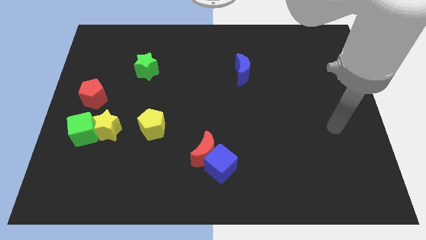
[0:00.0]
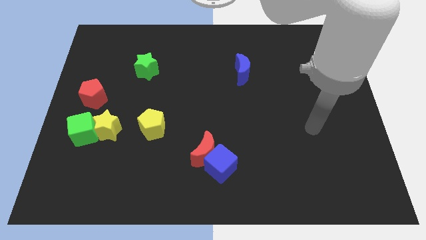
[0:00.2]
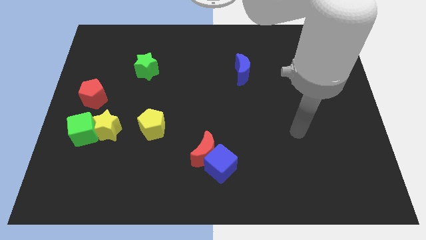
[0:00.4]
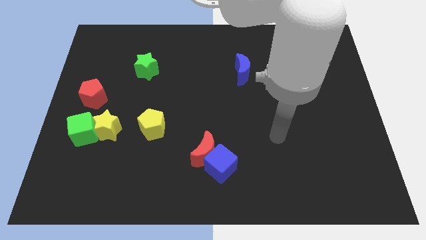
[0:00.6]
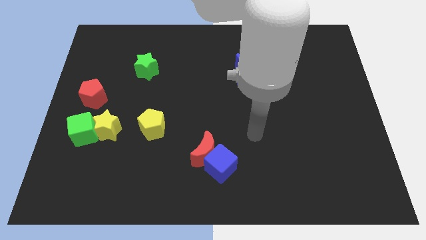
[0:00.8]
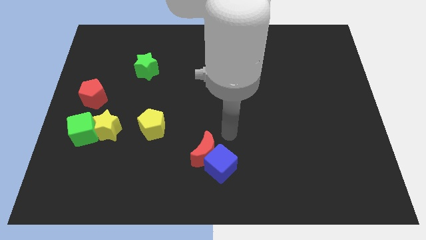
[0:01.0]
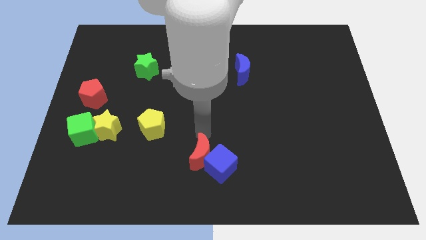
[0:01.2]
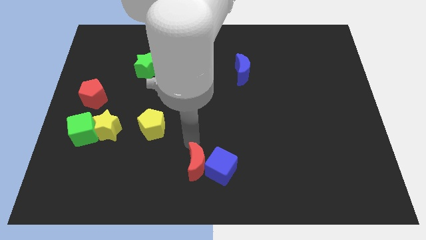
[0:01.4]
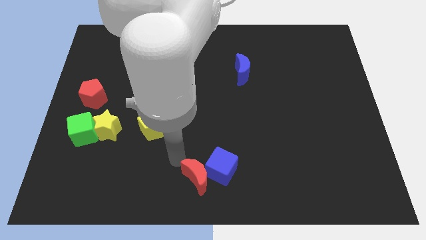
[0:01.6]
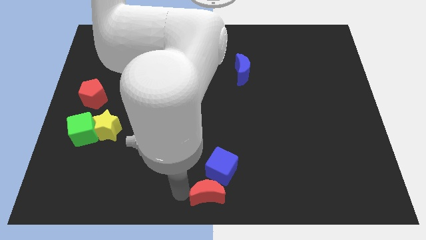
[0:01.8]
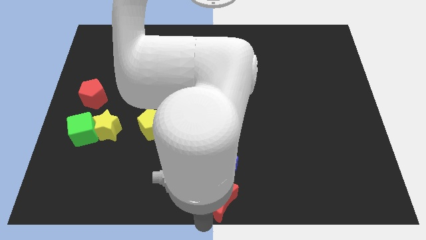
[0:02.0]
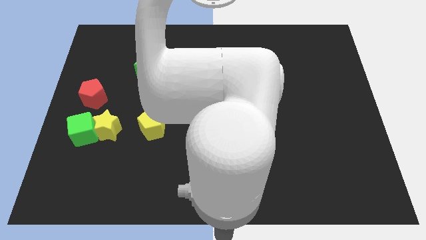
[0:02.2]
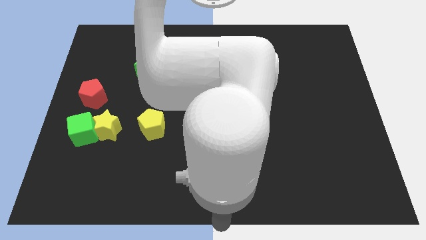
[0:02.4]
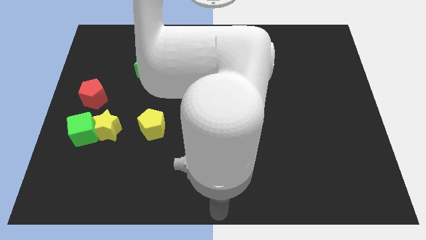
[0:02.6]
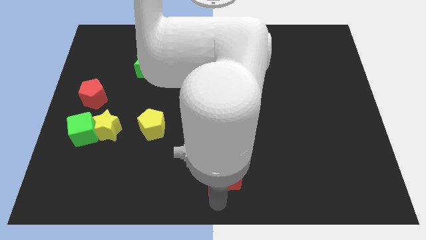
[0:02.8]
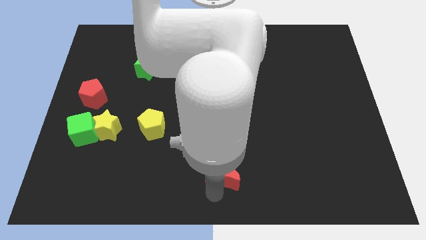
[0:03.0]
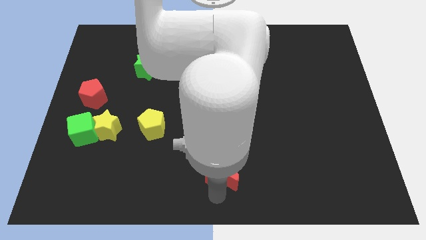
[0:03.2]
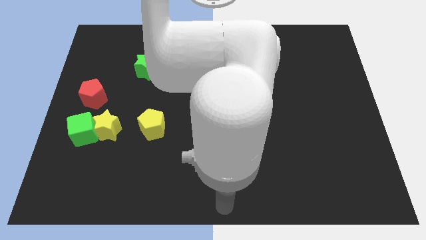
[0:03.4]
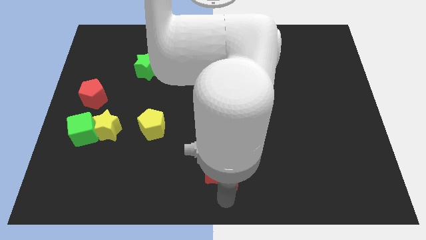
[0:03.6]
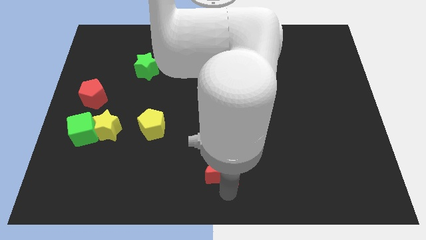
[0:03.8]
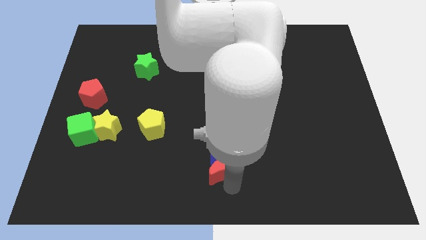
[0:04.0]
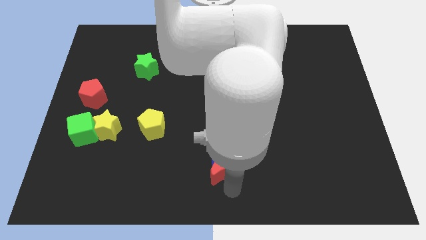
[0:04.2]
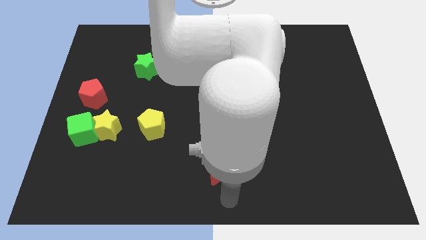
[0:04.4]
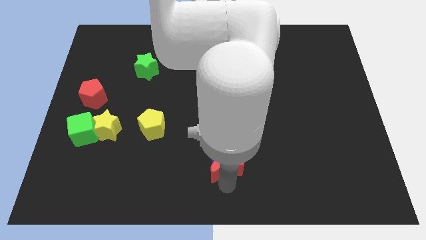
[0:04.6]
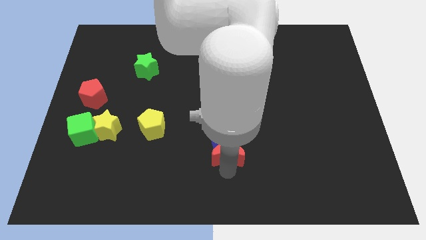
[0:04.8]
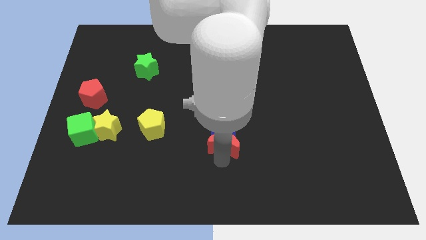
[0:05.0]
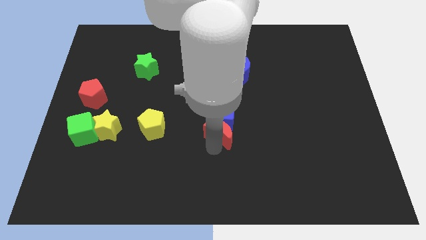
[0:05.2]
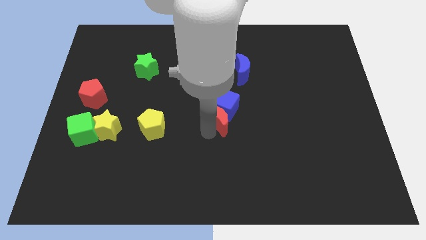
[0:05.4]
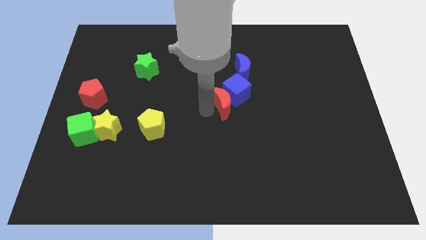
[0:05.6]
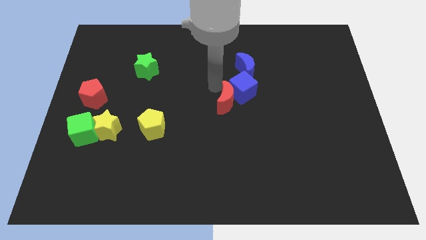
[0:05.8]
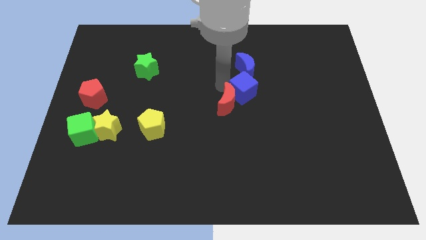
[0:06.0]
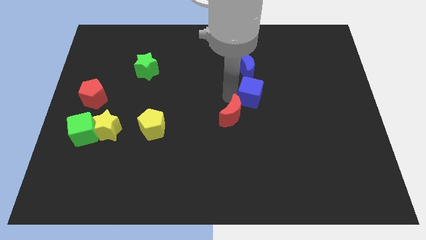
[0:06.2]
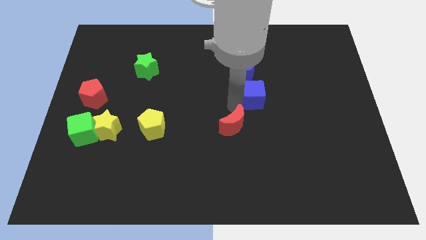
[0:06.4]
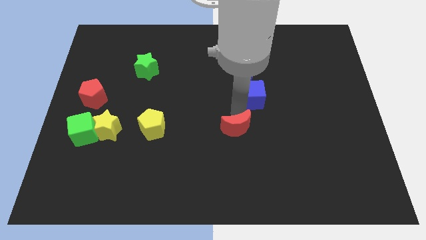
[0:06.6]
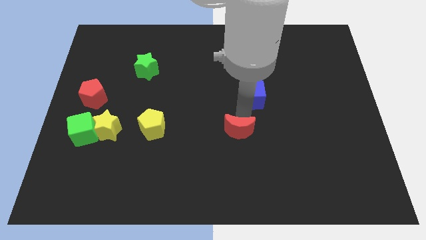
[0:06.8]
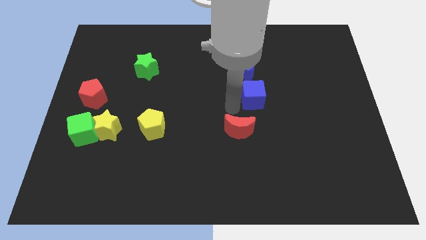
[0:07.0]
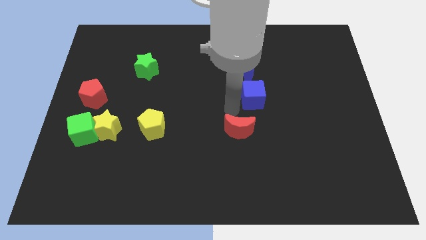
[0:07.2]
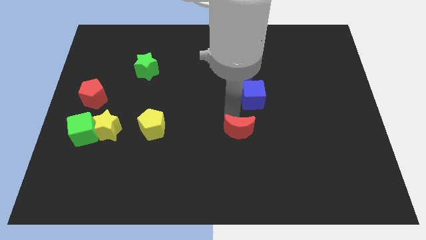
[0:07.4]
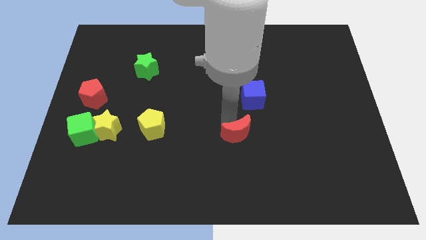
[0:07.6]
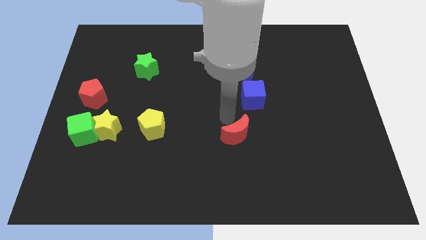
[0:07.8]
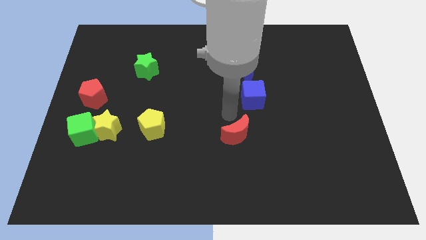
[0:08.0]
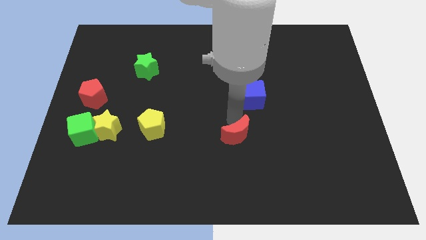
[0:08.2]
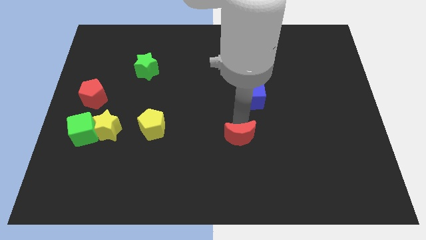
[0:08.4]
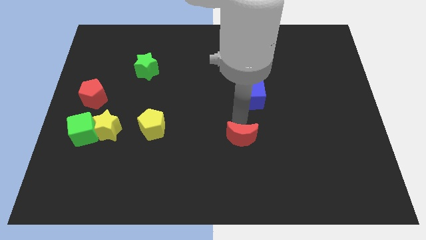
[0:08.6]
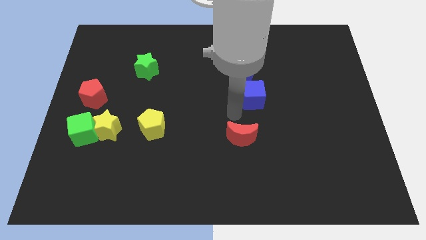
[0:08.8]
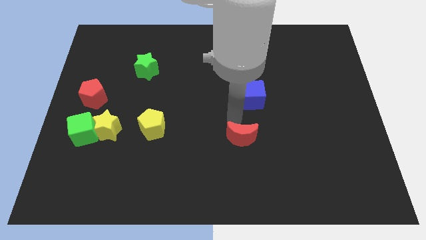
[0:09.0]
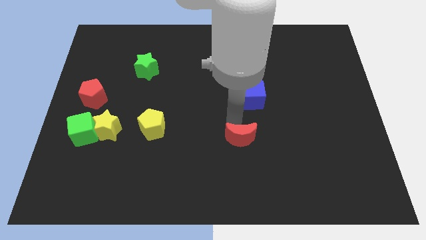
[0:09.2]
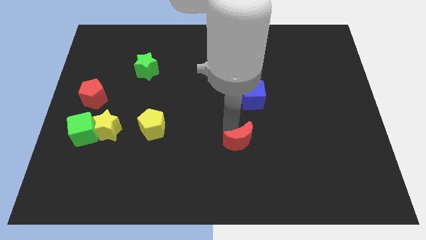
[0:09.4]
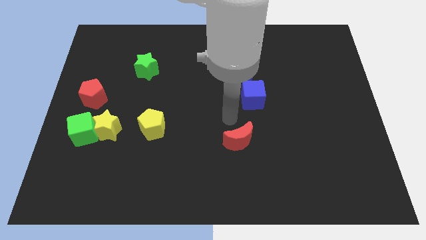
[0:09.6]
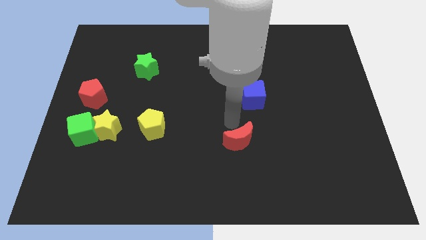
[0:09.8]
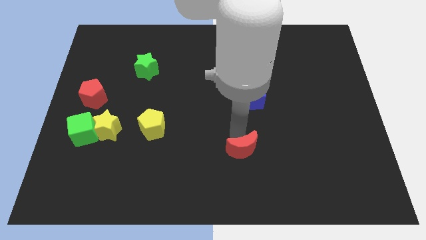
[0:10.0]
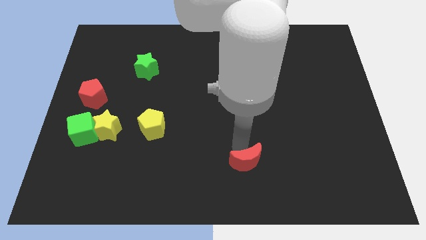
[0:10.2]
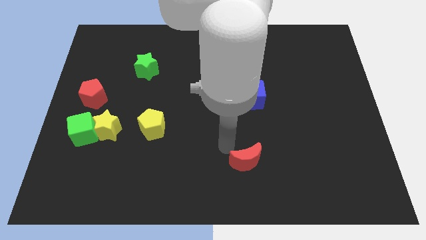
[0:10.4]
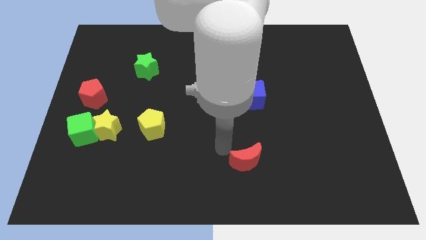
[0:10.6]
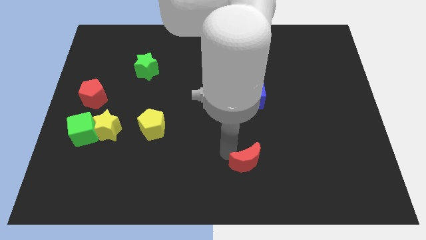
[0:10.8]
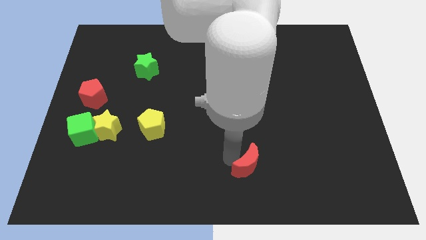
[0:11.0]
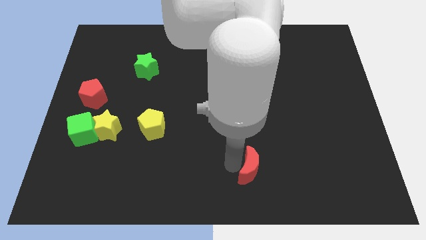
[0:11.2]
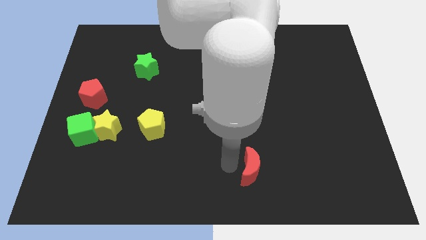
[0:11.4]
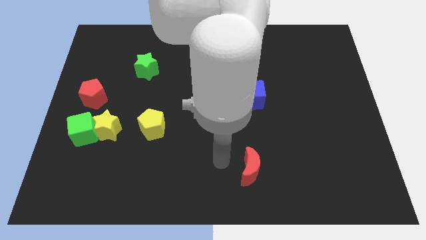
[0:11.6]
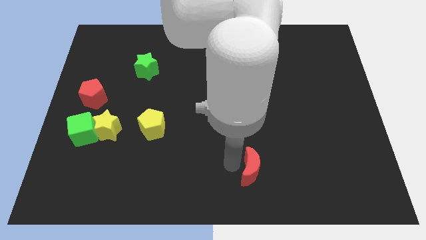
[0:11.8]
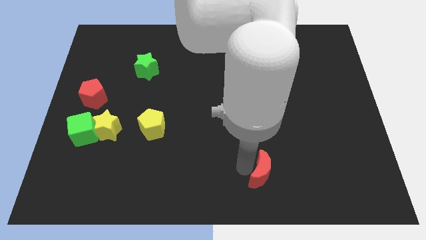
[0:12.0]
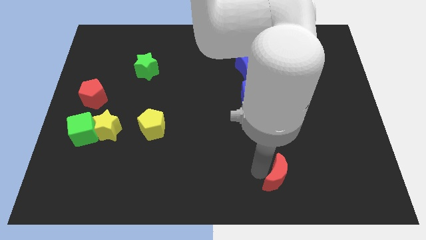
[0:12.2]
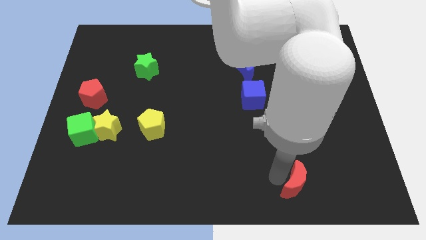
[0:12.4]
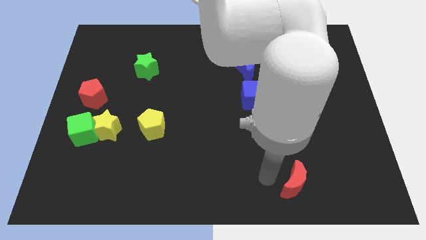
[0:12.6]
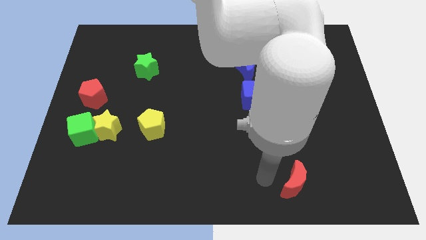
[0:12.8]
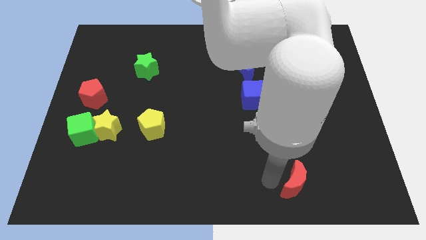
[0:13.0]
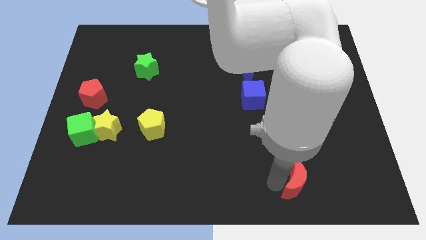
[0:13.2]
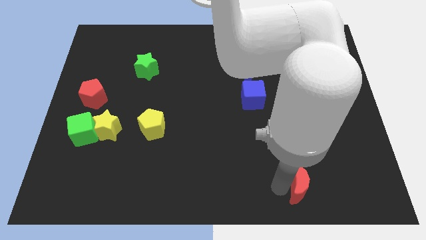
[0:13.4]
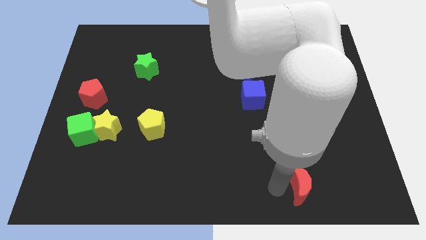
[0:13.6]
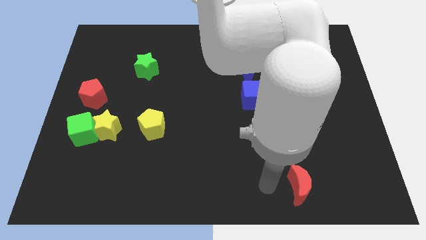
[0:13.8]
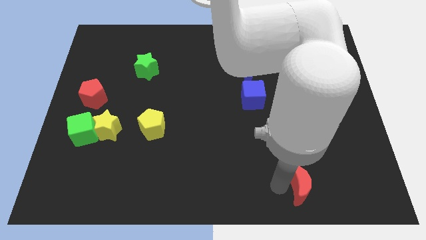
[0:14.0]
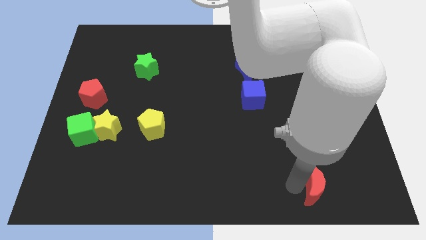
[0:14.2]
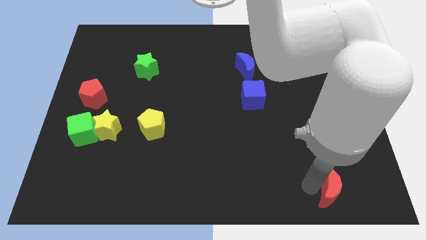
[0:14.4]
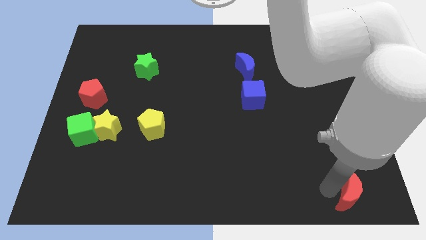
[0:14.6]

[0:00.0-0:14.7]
put the red moon to the bottom right of the board
